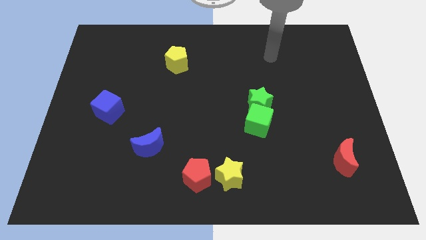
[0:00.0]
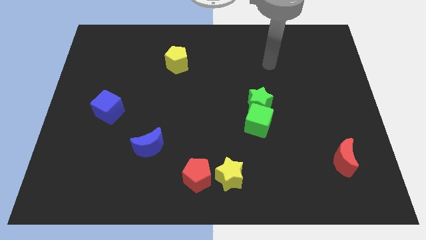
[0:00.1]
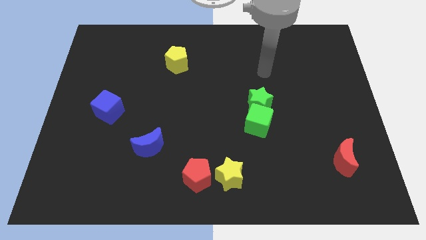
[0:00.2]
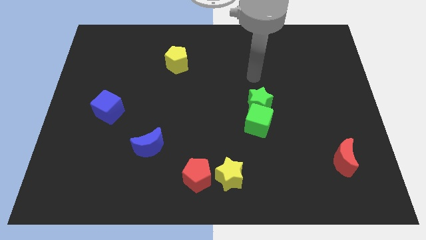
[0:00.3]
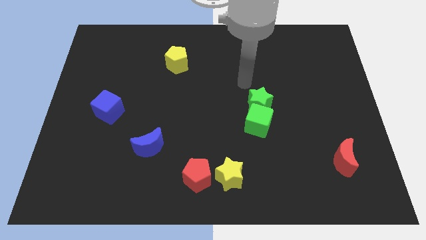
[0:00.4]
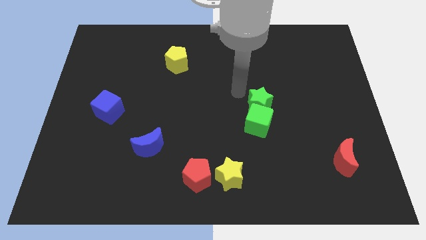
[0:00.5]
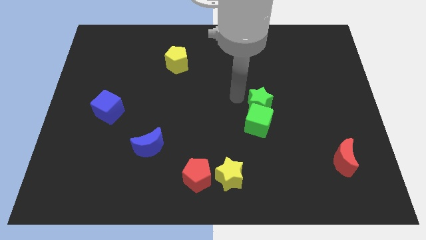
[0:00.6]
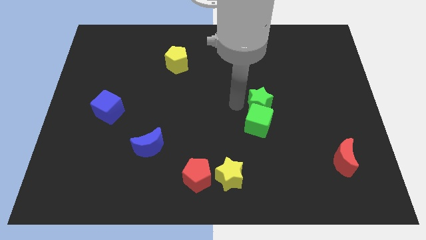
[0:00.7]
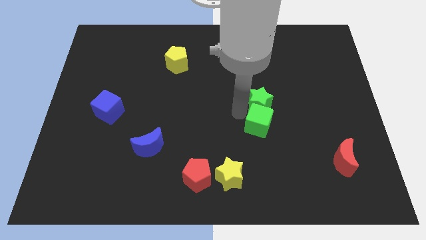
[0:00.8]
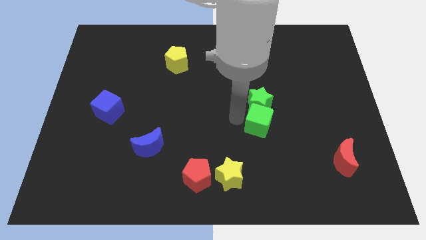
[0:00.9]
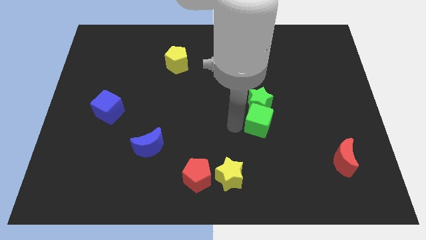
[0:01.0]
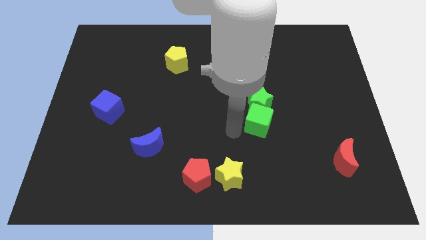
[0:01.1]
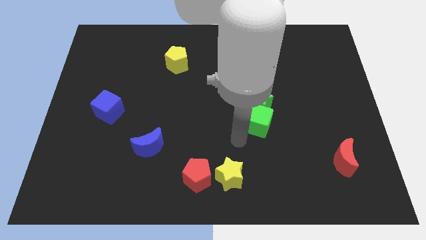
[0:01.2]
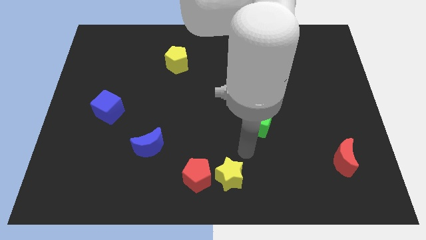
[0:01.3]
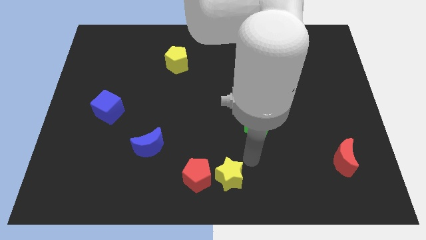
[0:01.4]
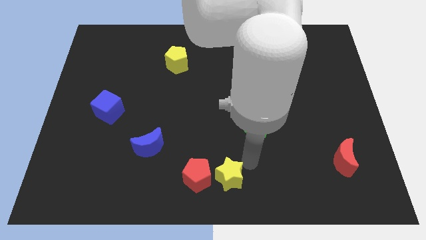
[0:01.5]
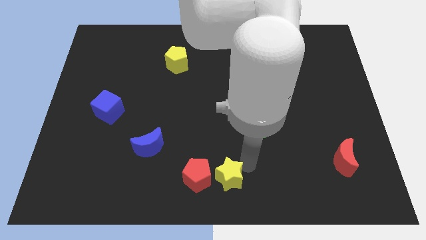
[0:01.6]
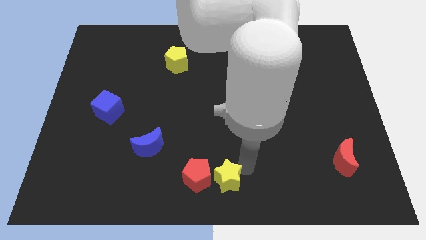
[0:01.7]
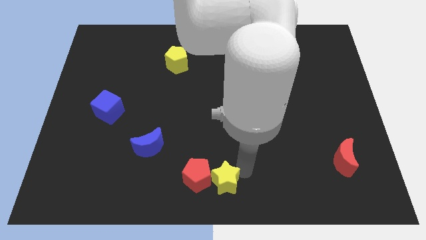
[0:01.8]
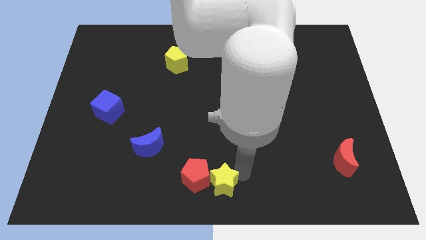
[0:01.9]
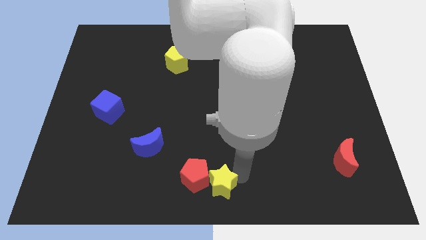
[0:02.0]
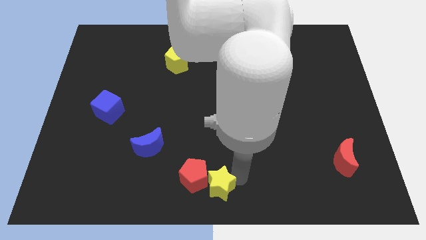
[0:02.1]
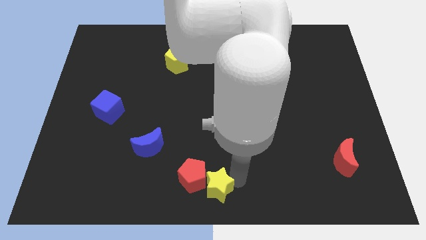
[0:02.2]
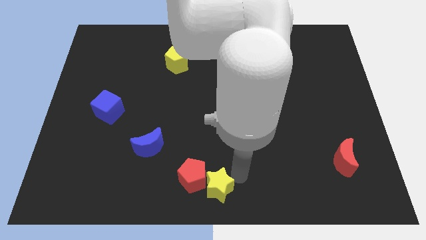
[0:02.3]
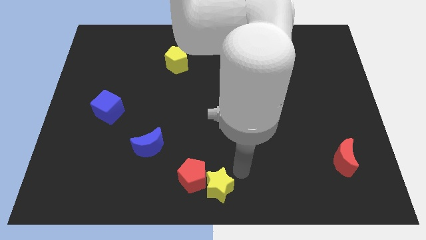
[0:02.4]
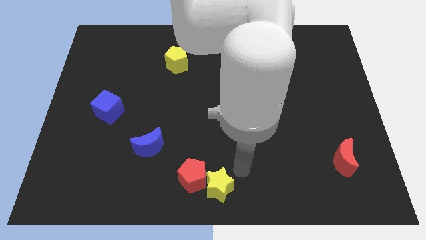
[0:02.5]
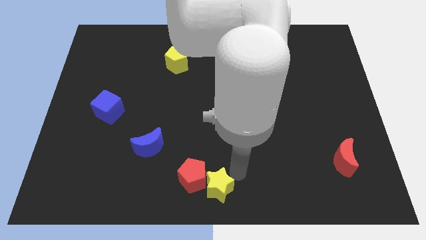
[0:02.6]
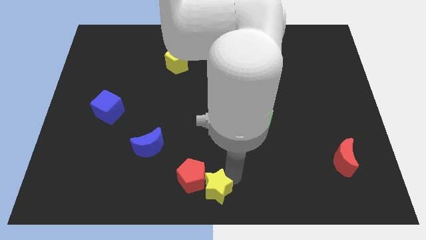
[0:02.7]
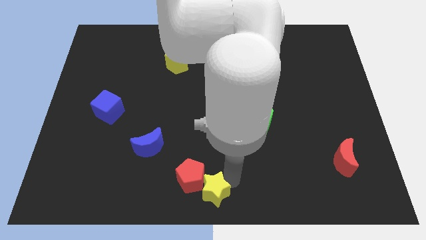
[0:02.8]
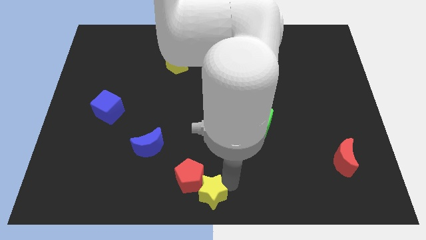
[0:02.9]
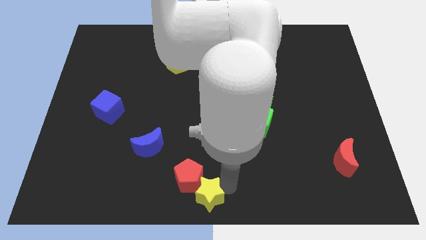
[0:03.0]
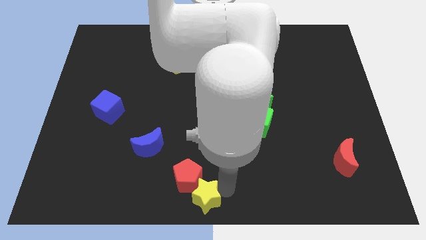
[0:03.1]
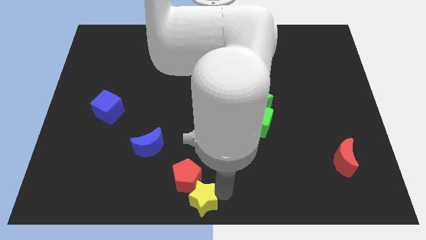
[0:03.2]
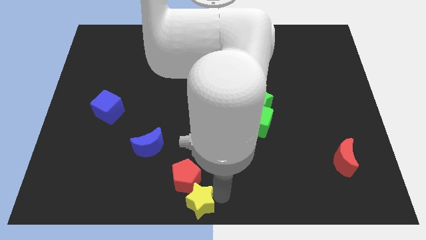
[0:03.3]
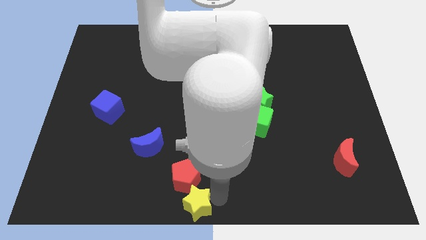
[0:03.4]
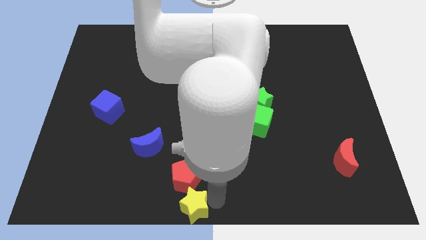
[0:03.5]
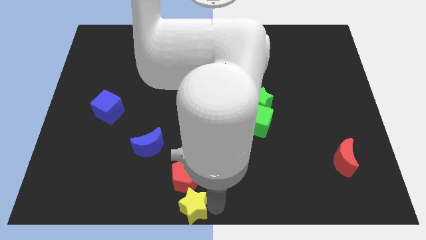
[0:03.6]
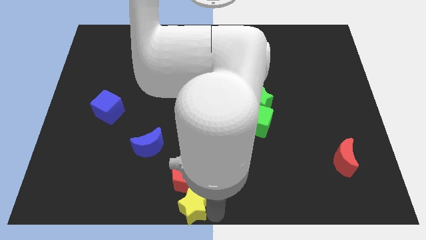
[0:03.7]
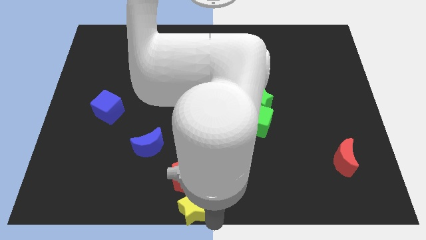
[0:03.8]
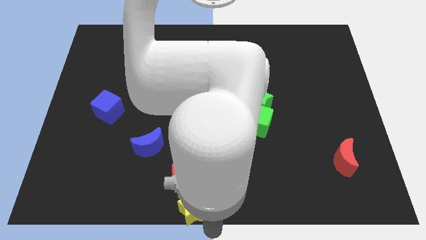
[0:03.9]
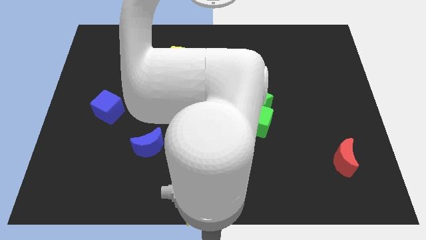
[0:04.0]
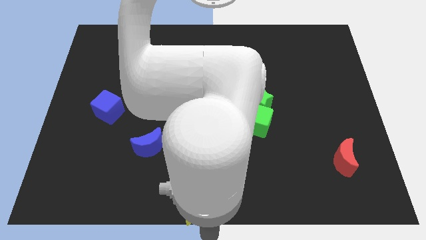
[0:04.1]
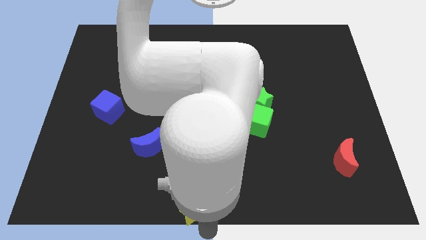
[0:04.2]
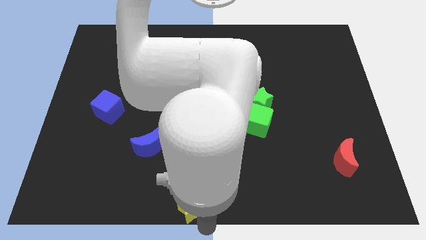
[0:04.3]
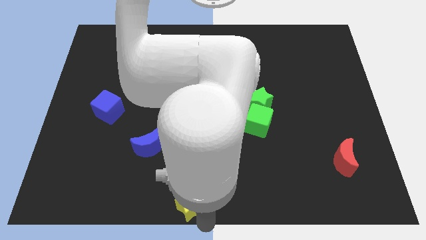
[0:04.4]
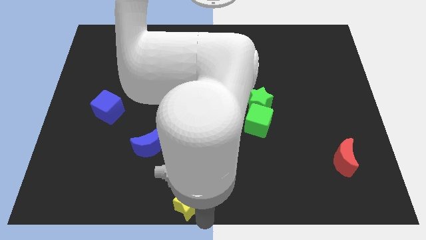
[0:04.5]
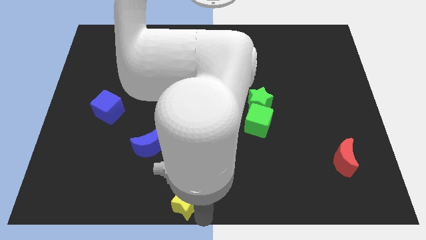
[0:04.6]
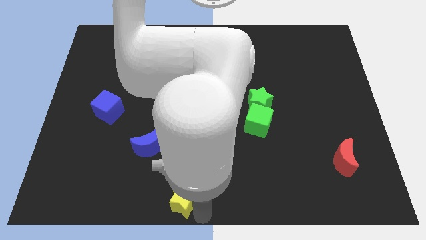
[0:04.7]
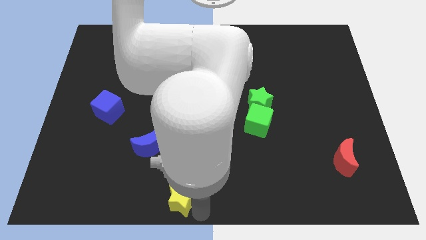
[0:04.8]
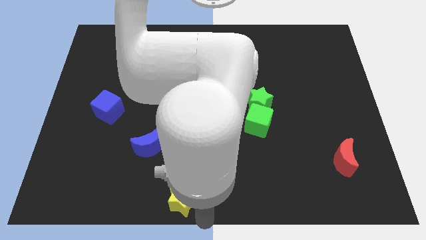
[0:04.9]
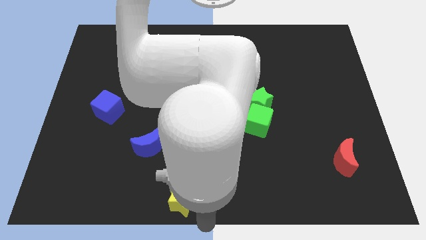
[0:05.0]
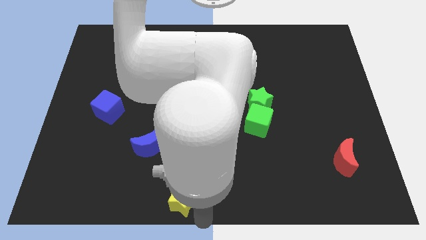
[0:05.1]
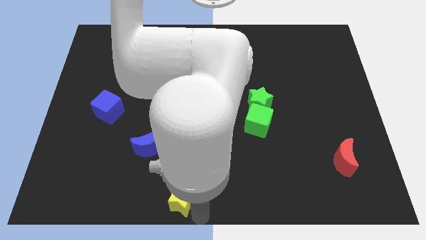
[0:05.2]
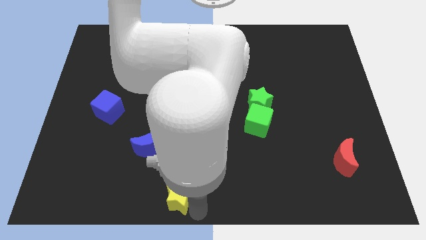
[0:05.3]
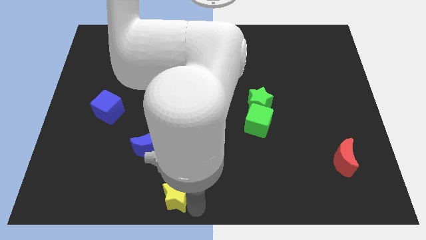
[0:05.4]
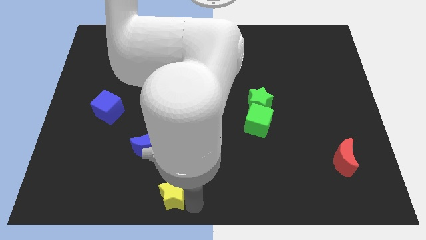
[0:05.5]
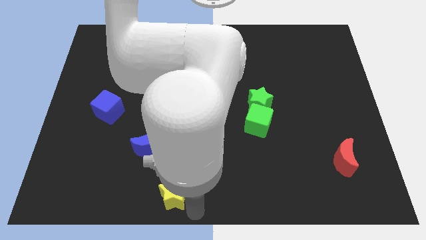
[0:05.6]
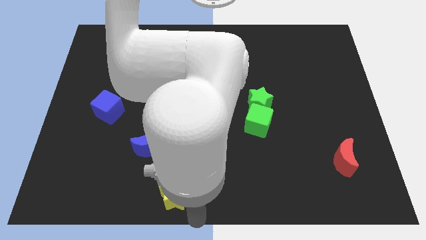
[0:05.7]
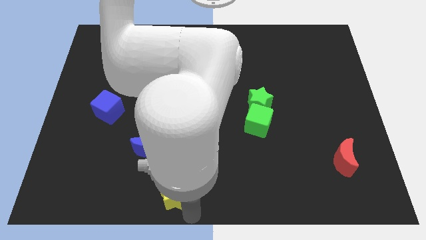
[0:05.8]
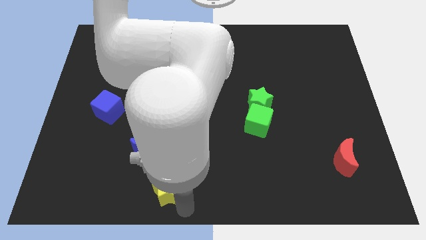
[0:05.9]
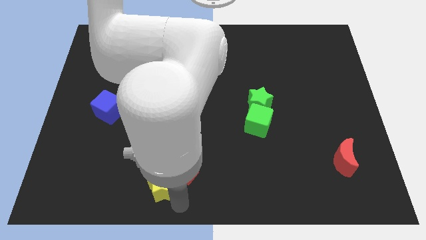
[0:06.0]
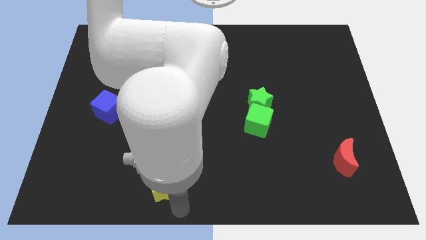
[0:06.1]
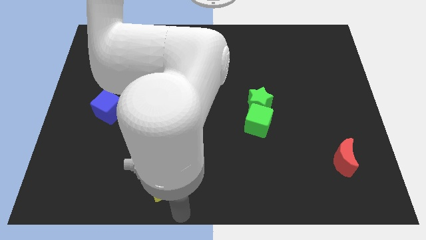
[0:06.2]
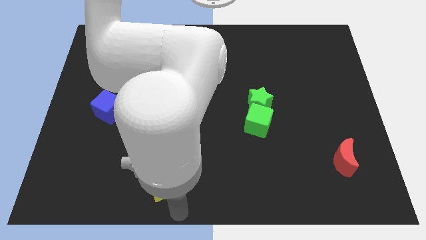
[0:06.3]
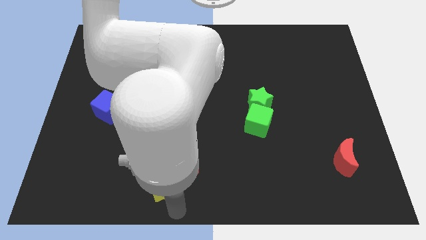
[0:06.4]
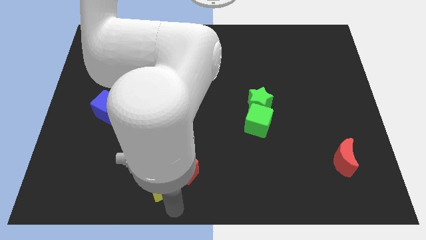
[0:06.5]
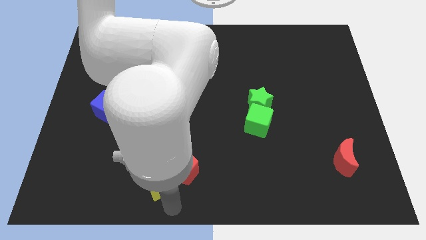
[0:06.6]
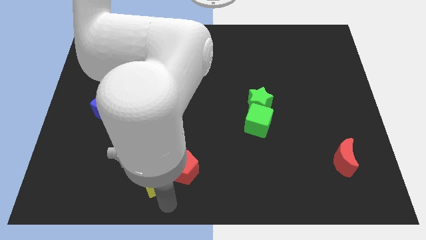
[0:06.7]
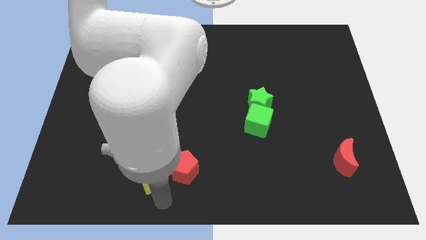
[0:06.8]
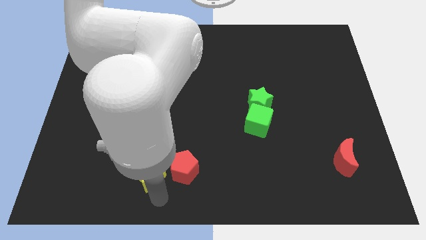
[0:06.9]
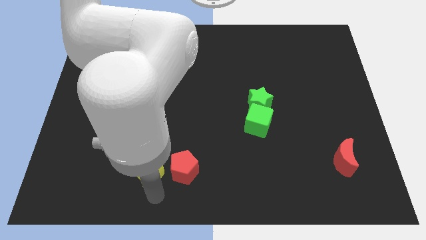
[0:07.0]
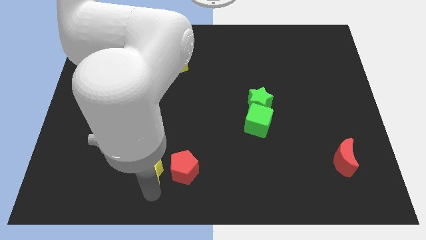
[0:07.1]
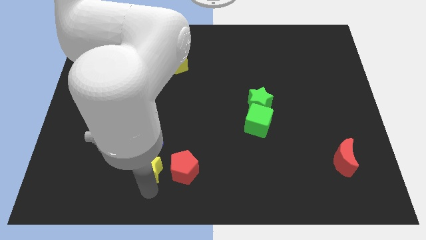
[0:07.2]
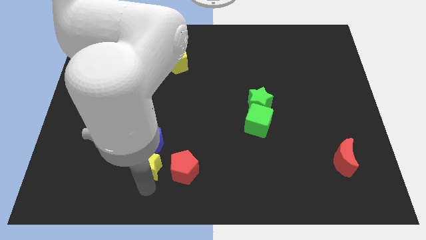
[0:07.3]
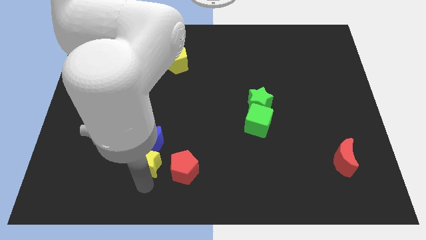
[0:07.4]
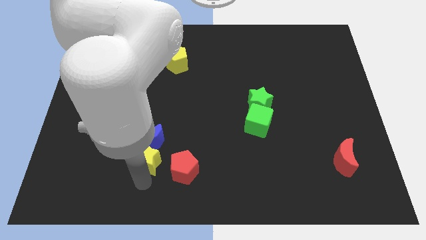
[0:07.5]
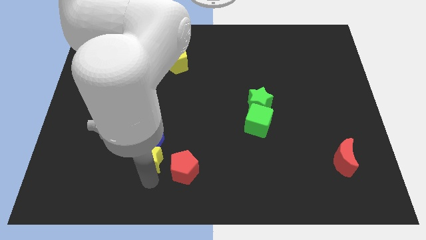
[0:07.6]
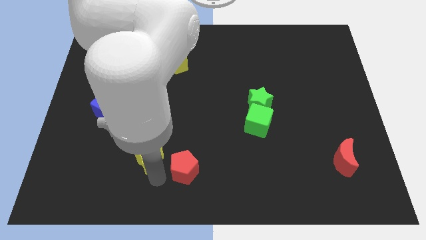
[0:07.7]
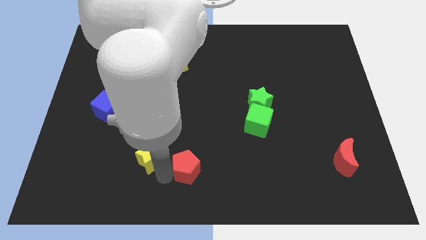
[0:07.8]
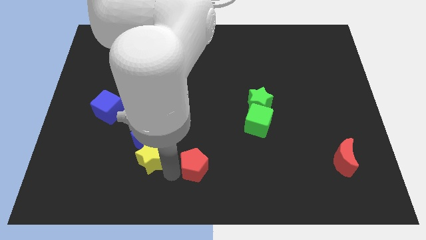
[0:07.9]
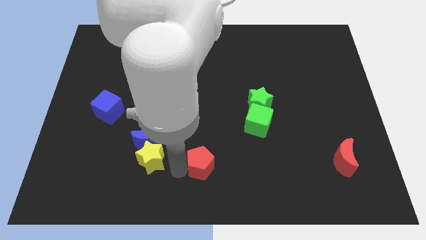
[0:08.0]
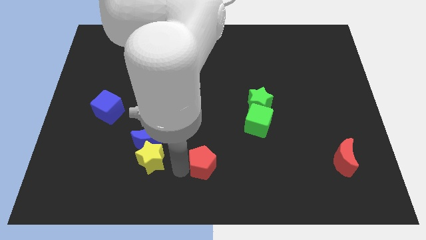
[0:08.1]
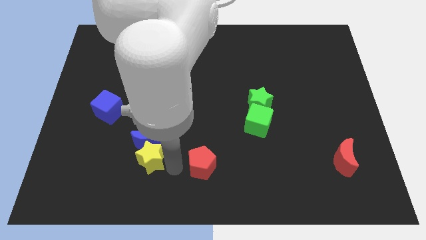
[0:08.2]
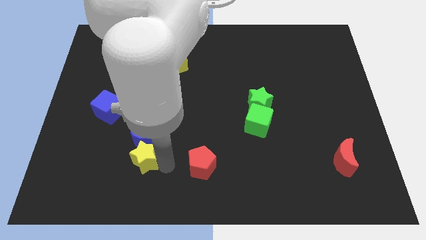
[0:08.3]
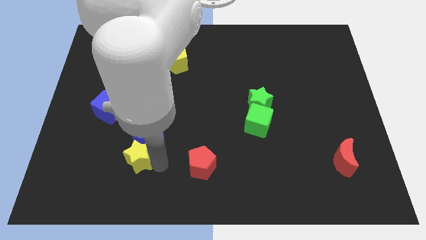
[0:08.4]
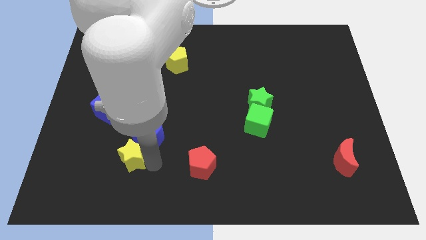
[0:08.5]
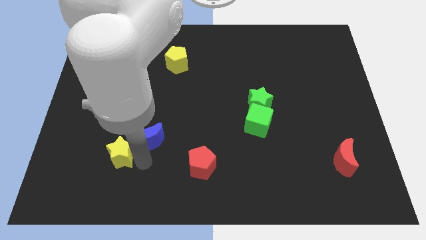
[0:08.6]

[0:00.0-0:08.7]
push the yellow star to the bottom side of the blue cube
